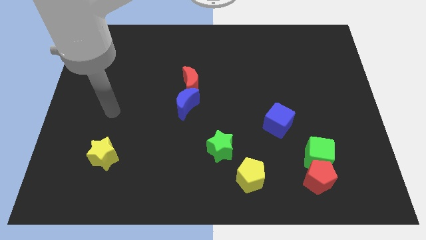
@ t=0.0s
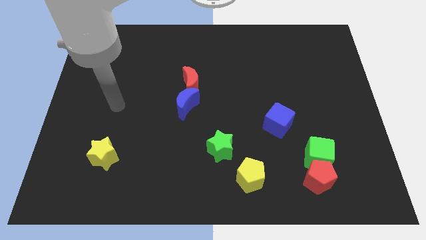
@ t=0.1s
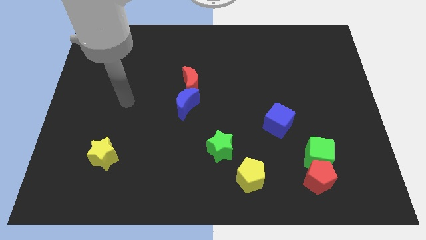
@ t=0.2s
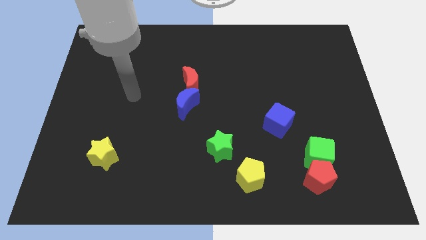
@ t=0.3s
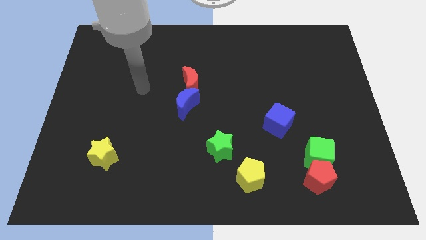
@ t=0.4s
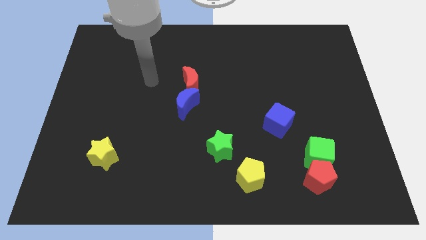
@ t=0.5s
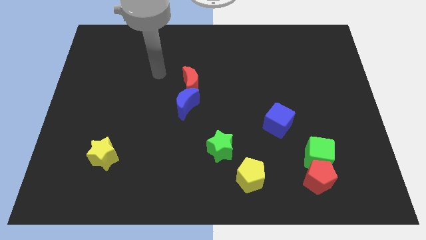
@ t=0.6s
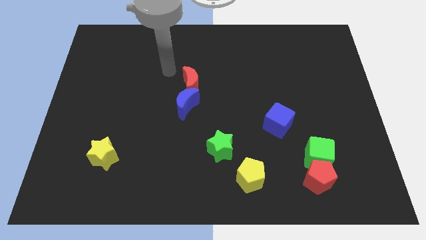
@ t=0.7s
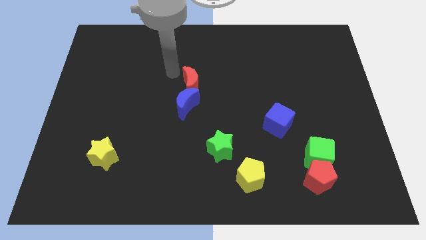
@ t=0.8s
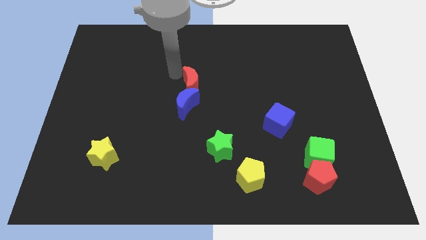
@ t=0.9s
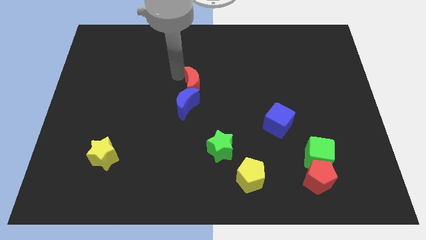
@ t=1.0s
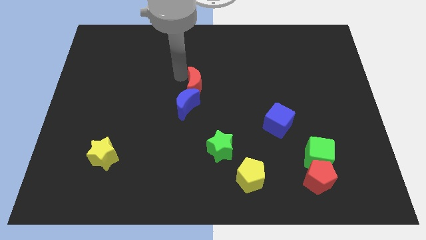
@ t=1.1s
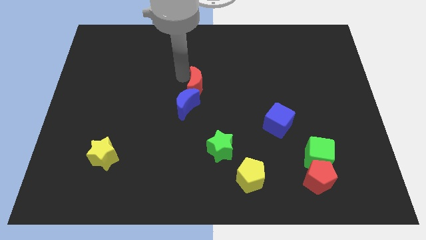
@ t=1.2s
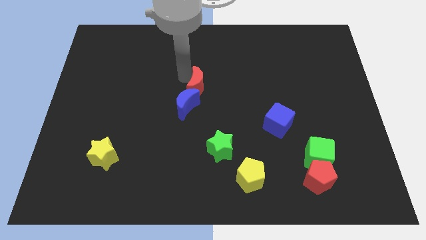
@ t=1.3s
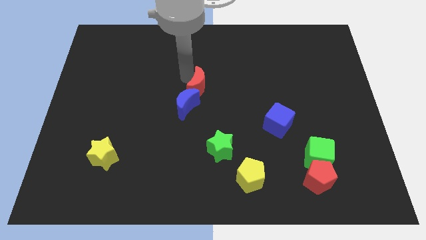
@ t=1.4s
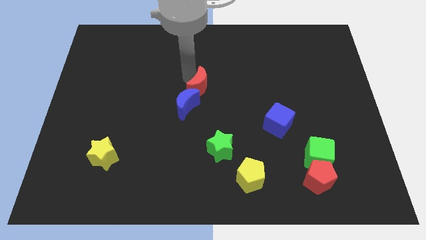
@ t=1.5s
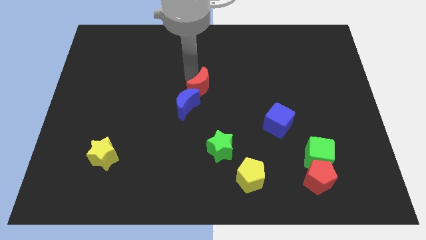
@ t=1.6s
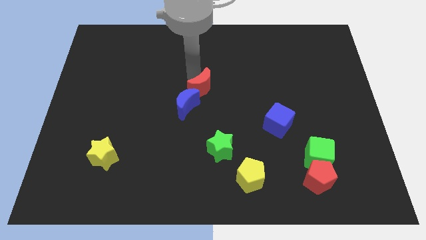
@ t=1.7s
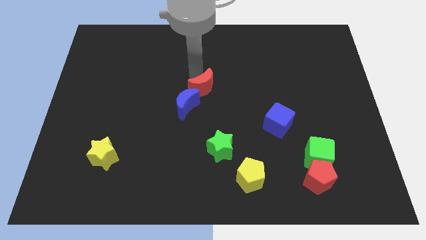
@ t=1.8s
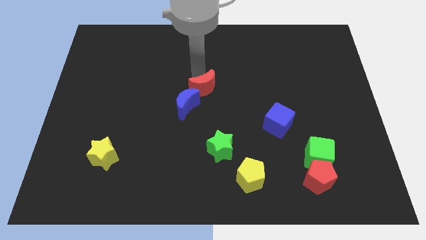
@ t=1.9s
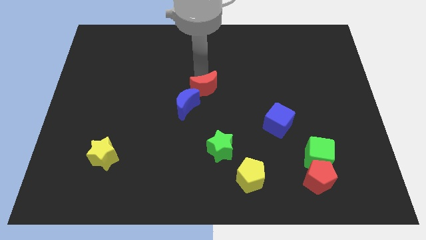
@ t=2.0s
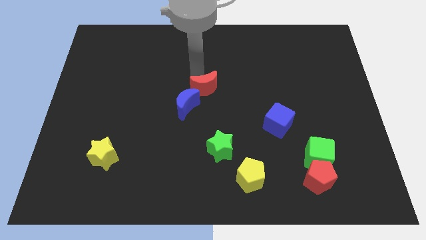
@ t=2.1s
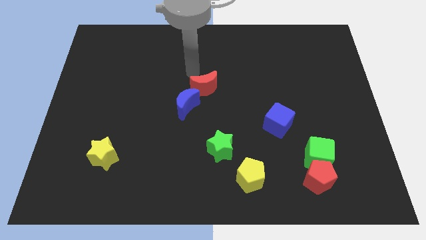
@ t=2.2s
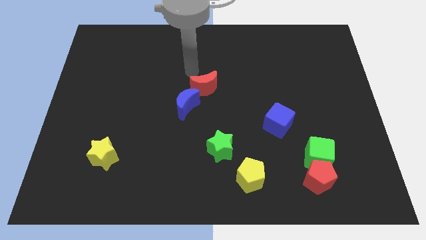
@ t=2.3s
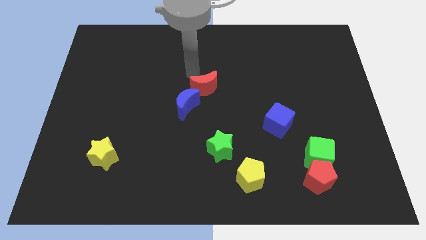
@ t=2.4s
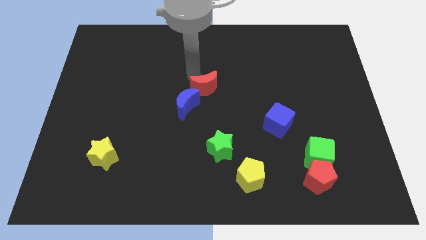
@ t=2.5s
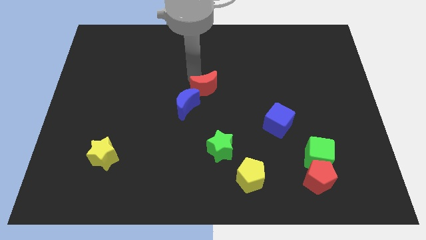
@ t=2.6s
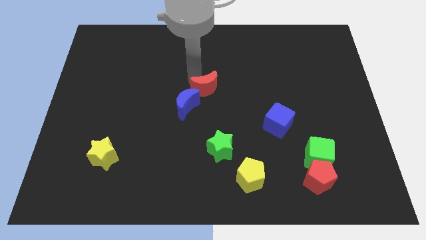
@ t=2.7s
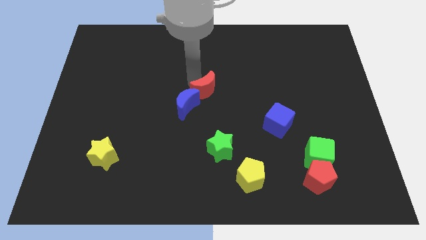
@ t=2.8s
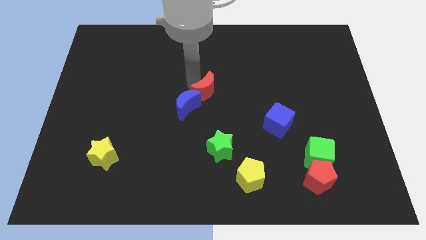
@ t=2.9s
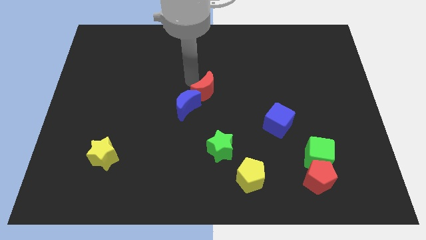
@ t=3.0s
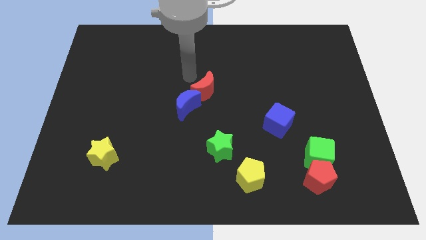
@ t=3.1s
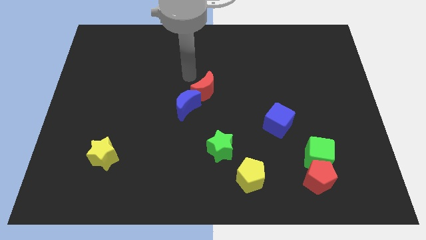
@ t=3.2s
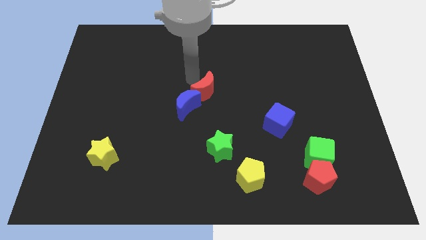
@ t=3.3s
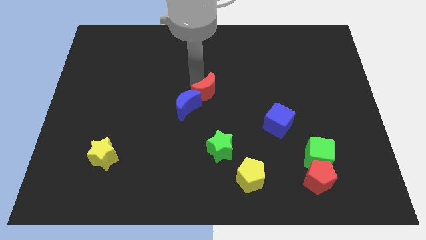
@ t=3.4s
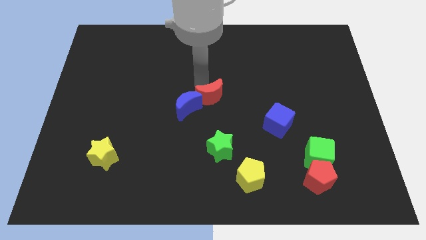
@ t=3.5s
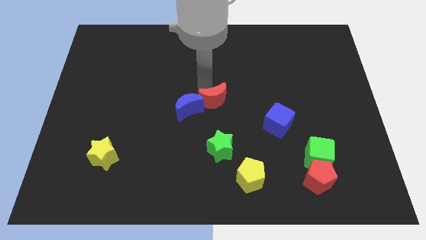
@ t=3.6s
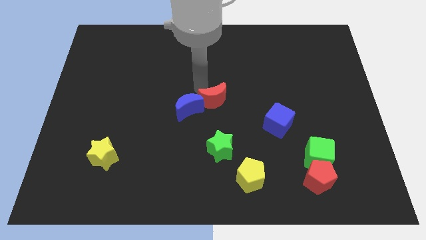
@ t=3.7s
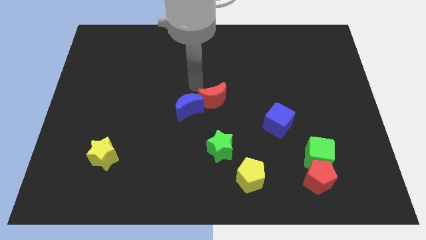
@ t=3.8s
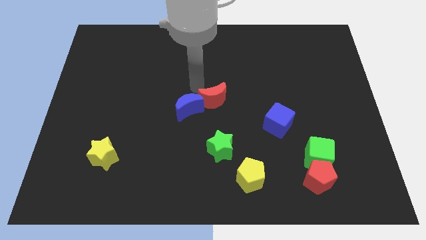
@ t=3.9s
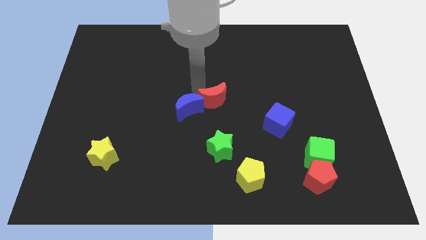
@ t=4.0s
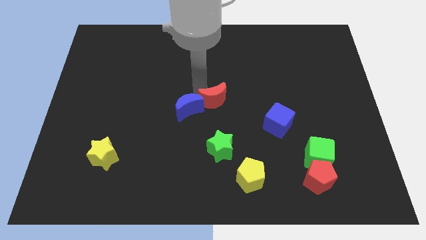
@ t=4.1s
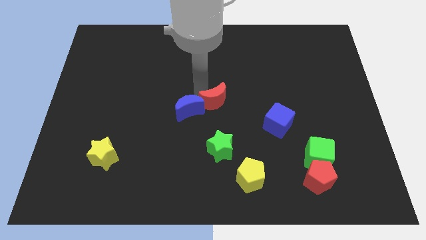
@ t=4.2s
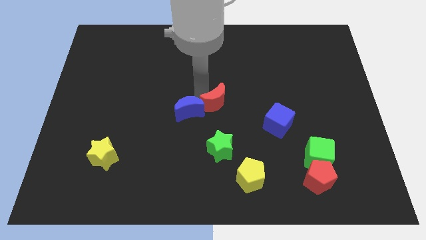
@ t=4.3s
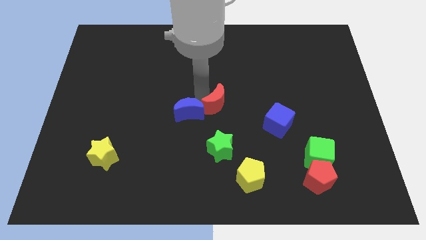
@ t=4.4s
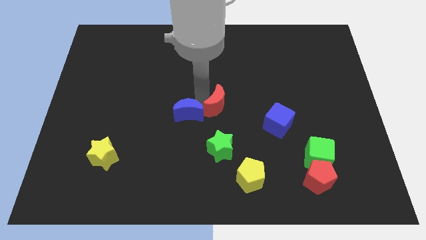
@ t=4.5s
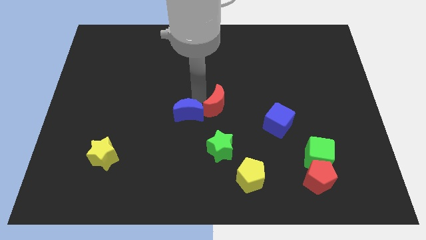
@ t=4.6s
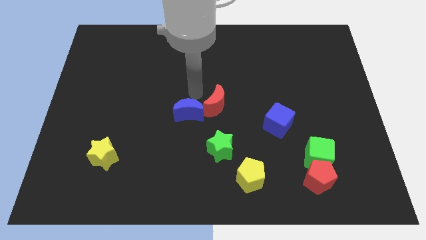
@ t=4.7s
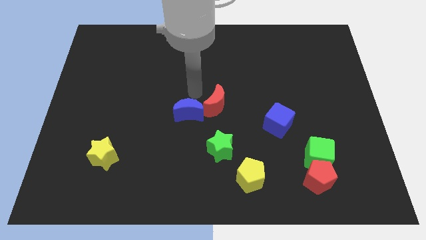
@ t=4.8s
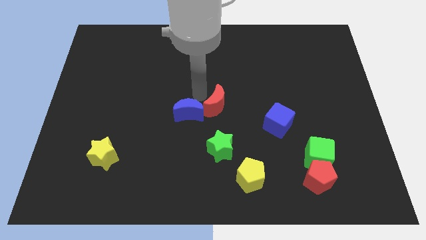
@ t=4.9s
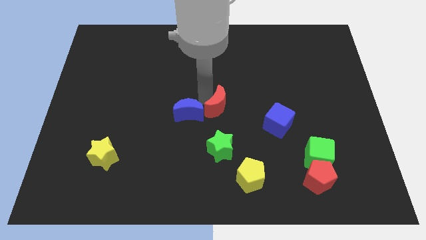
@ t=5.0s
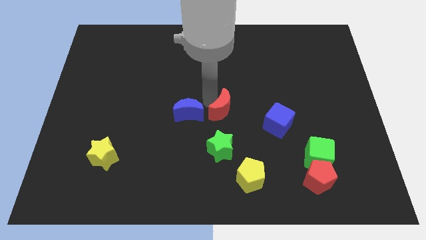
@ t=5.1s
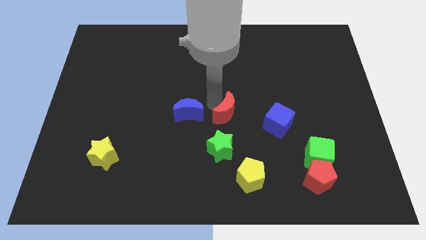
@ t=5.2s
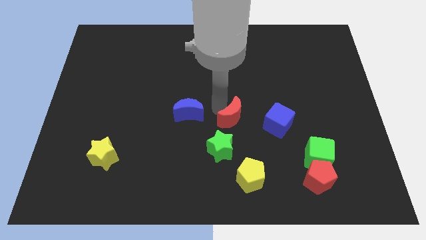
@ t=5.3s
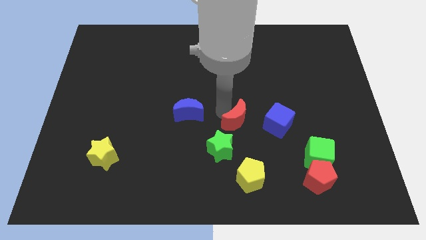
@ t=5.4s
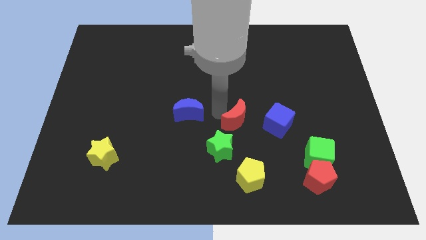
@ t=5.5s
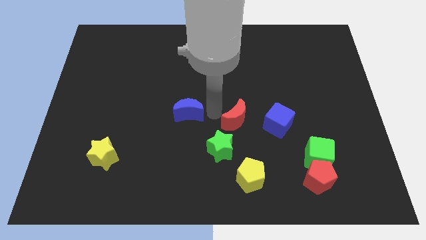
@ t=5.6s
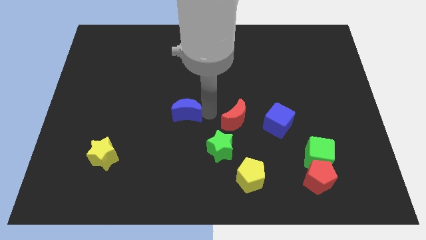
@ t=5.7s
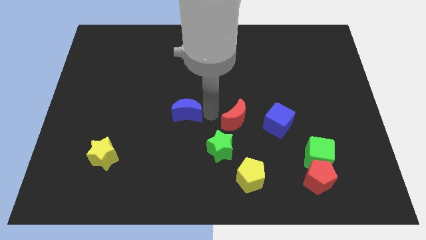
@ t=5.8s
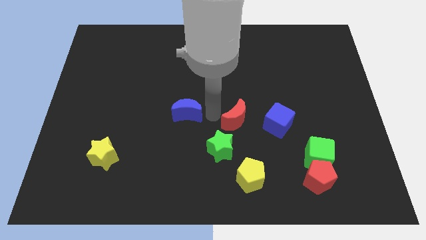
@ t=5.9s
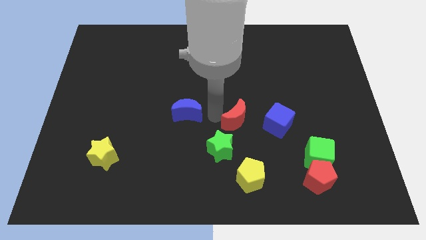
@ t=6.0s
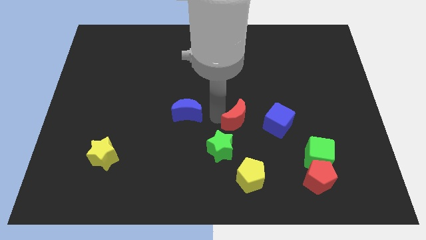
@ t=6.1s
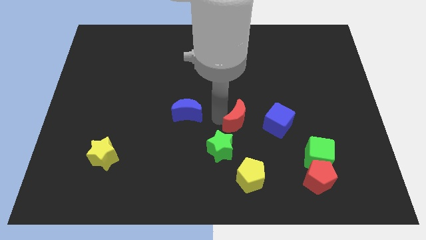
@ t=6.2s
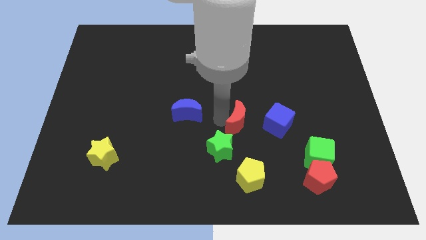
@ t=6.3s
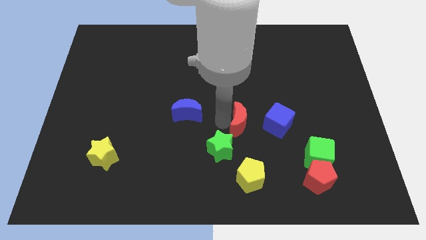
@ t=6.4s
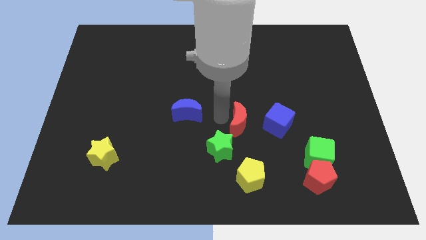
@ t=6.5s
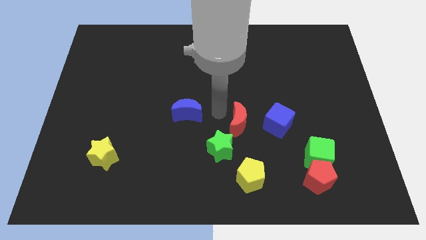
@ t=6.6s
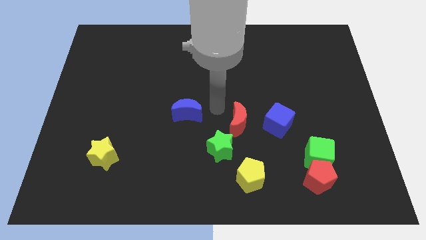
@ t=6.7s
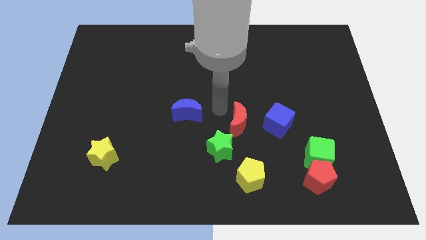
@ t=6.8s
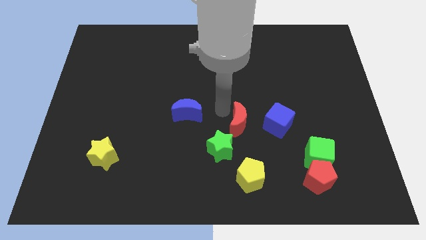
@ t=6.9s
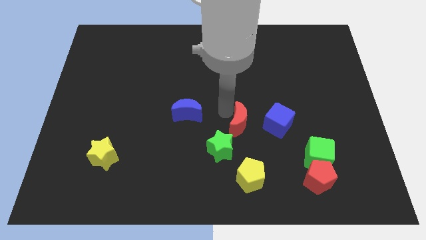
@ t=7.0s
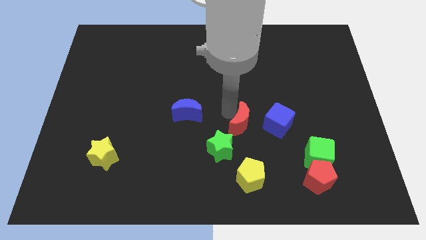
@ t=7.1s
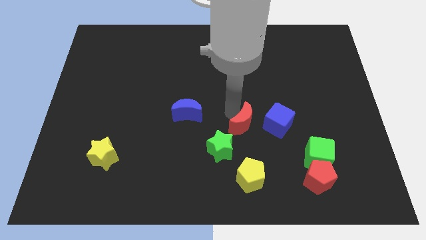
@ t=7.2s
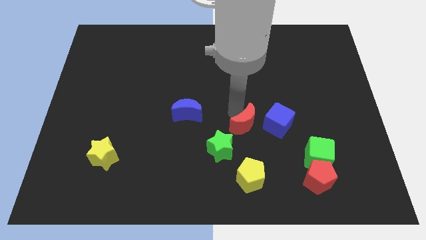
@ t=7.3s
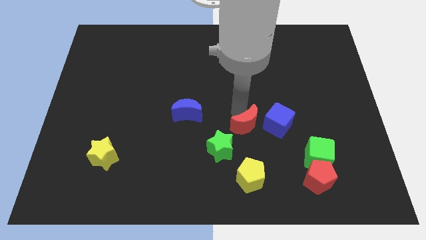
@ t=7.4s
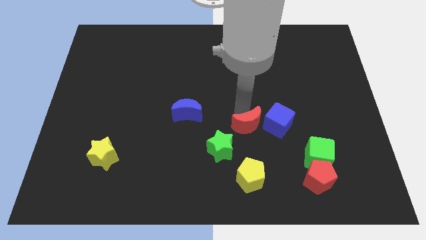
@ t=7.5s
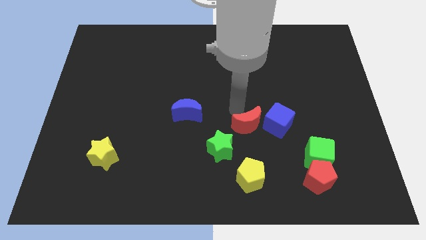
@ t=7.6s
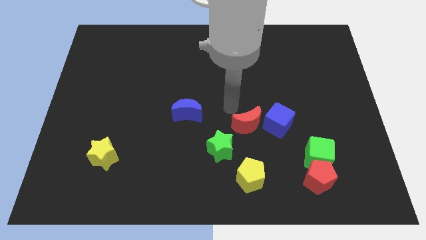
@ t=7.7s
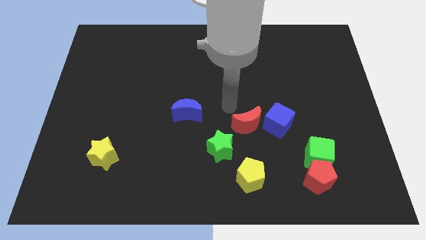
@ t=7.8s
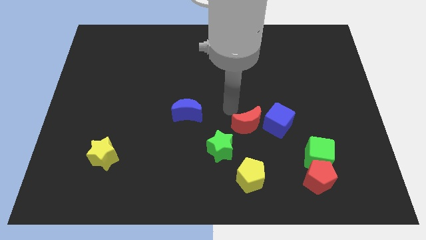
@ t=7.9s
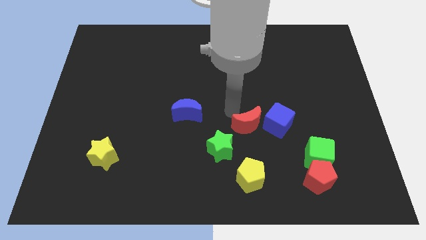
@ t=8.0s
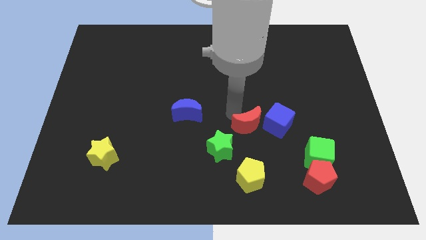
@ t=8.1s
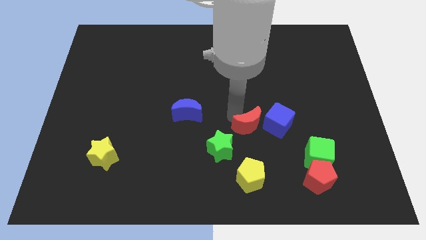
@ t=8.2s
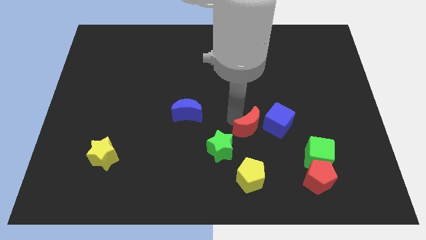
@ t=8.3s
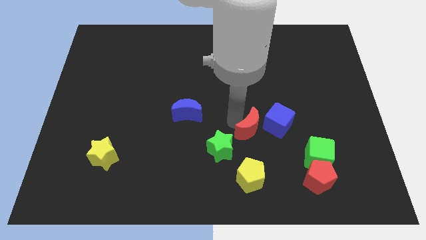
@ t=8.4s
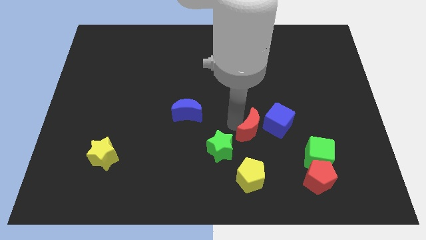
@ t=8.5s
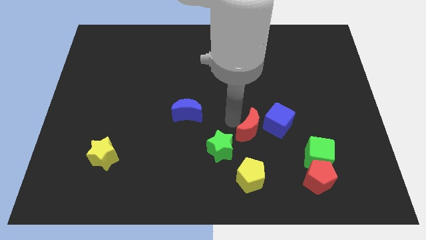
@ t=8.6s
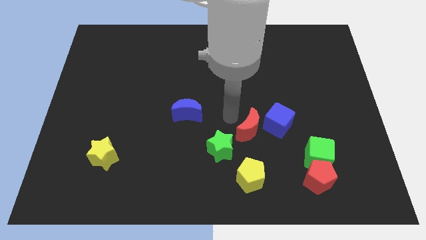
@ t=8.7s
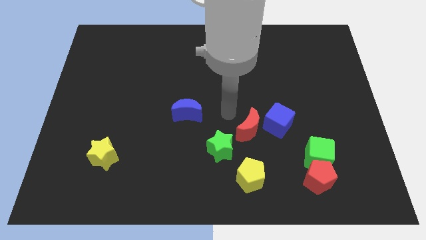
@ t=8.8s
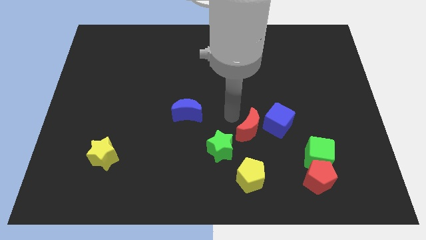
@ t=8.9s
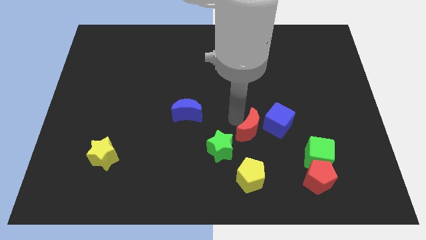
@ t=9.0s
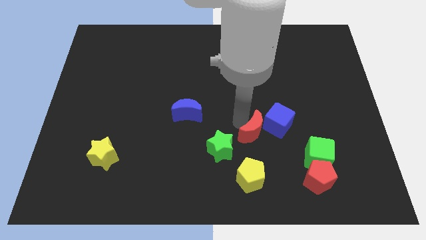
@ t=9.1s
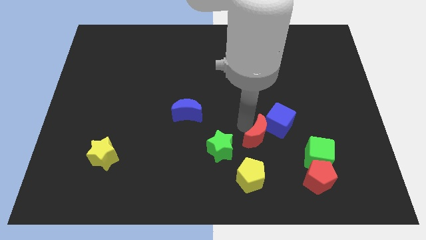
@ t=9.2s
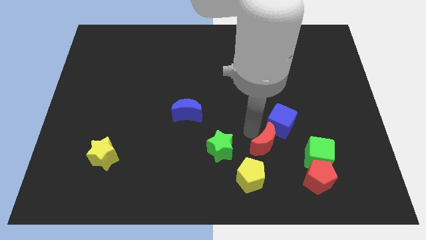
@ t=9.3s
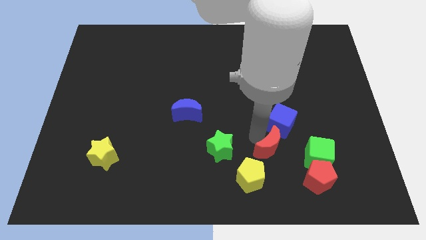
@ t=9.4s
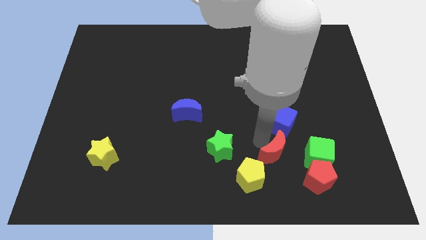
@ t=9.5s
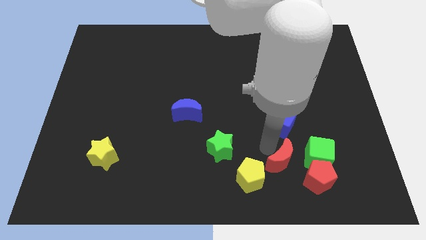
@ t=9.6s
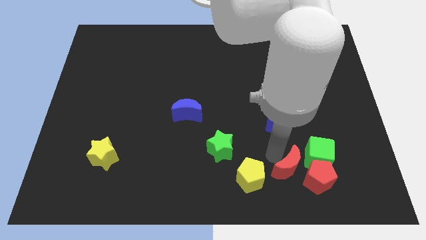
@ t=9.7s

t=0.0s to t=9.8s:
move the red moon close to the red pentagon
